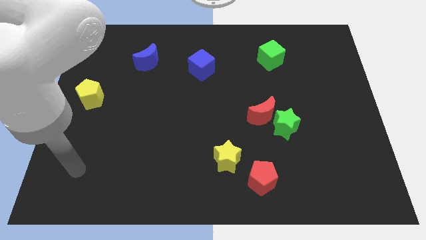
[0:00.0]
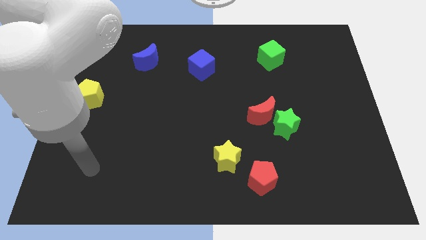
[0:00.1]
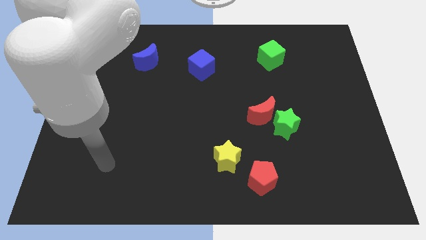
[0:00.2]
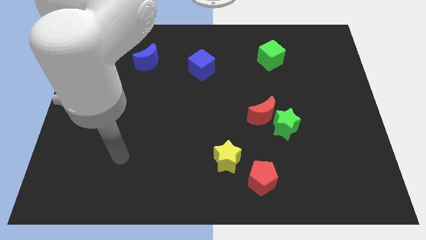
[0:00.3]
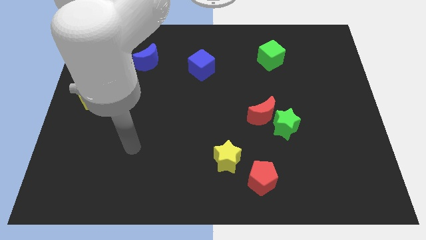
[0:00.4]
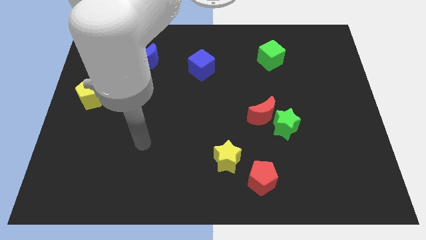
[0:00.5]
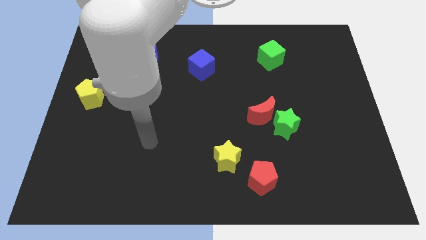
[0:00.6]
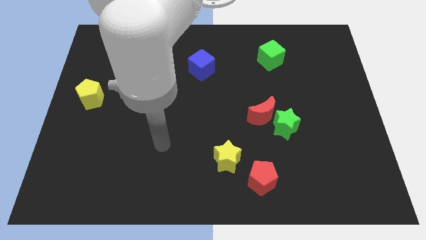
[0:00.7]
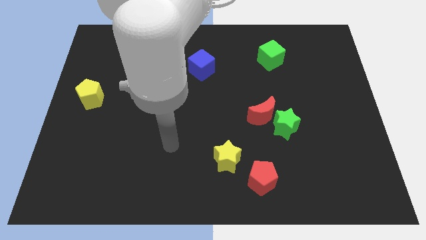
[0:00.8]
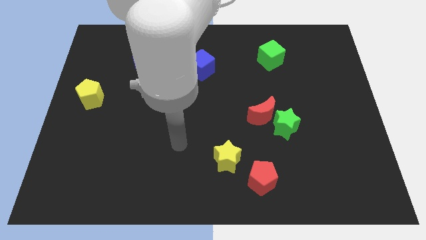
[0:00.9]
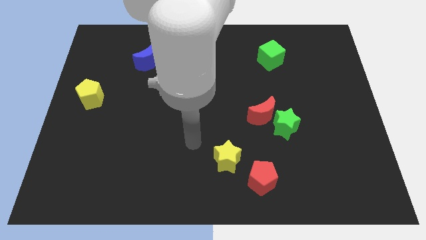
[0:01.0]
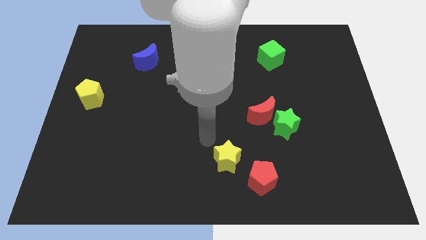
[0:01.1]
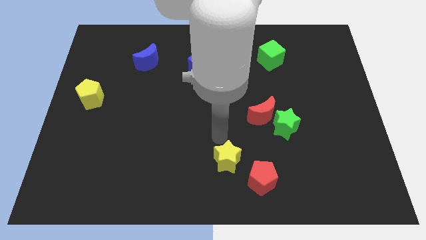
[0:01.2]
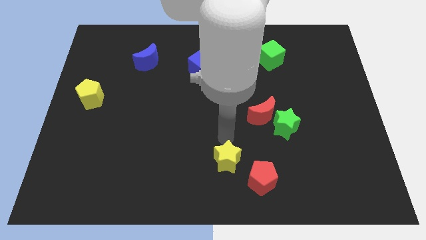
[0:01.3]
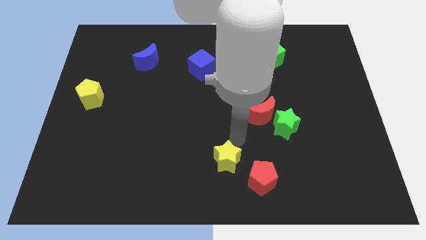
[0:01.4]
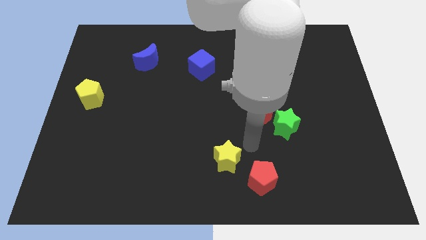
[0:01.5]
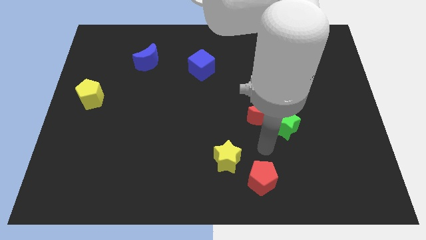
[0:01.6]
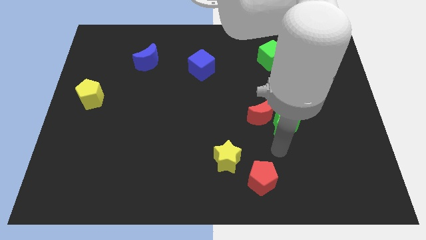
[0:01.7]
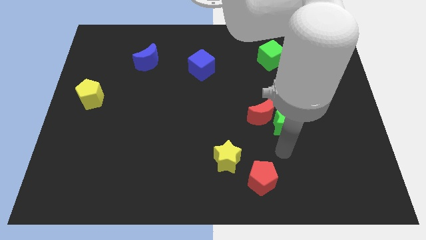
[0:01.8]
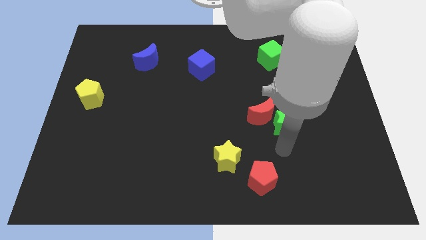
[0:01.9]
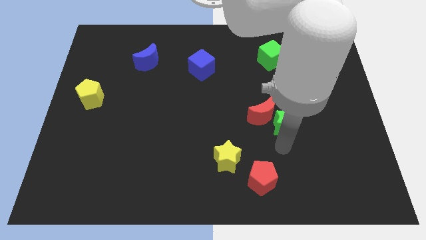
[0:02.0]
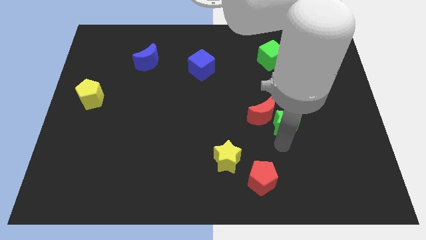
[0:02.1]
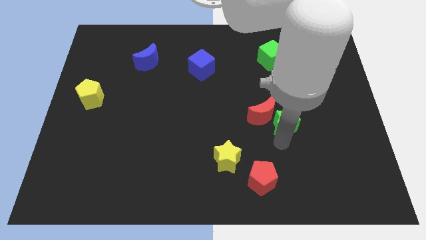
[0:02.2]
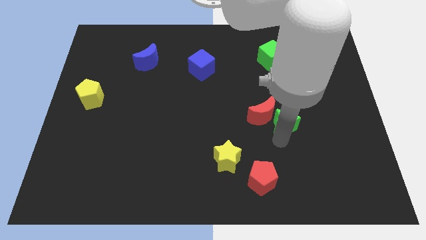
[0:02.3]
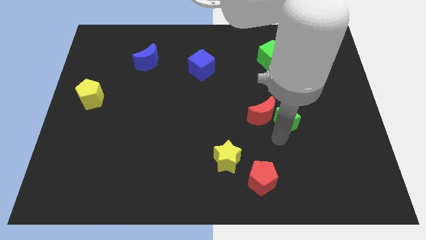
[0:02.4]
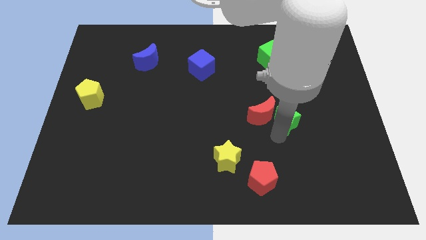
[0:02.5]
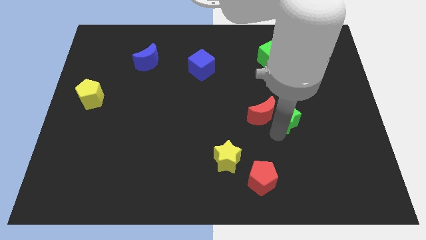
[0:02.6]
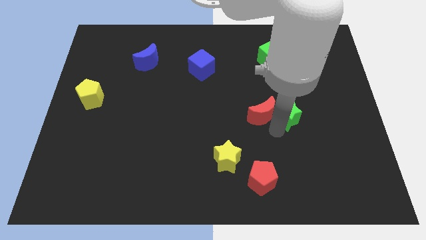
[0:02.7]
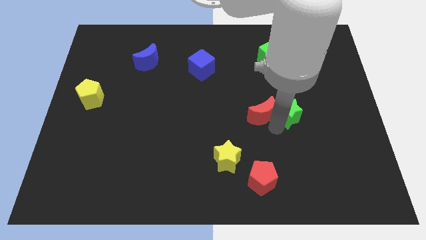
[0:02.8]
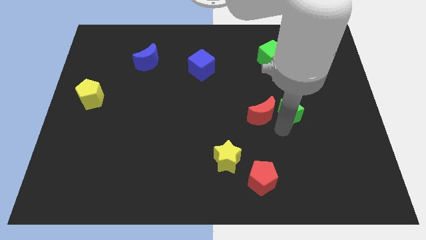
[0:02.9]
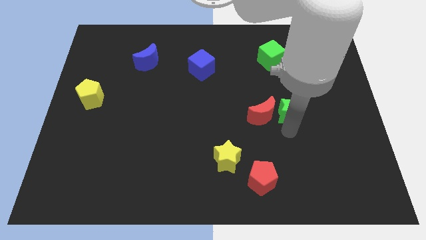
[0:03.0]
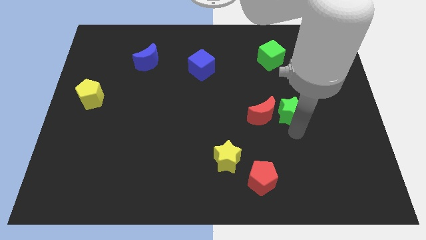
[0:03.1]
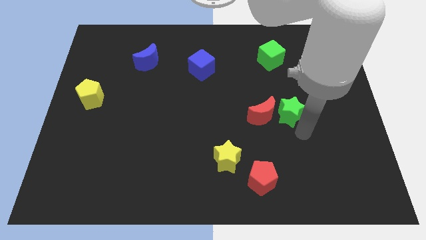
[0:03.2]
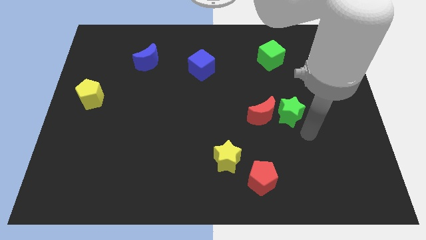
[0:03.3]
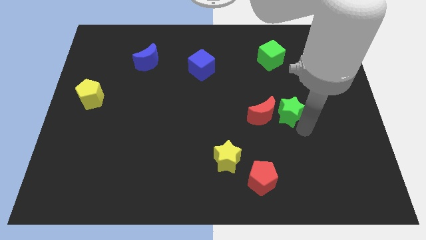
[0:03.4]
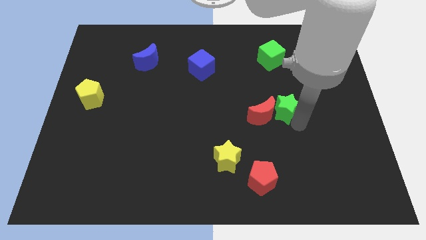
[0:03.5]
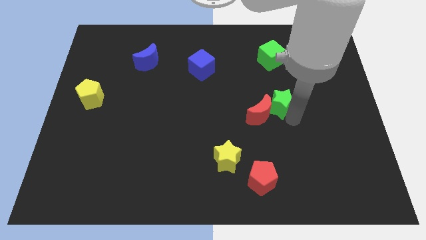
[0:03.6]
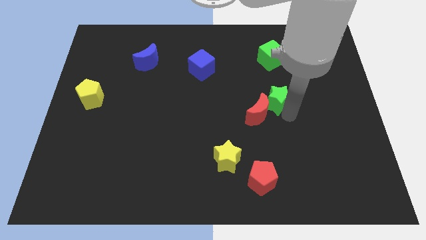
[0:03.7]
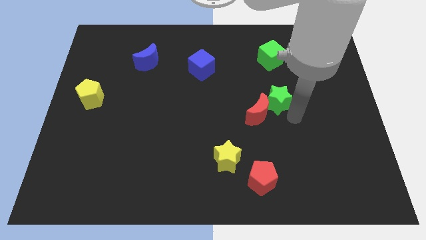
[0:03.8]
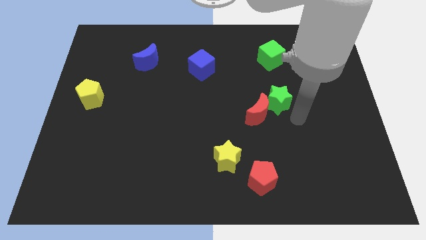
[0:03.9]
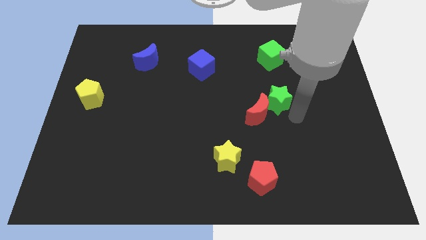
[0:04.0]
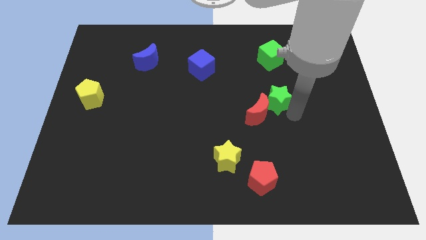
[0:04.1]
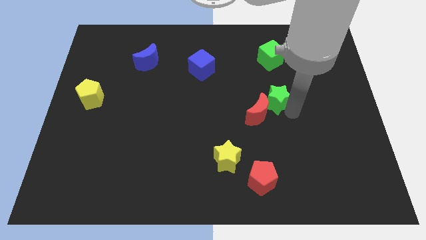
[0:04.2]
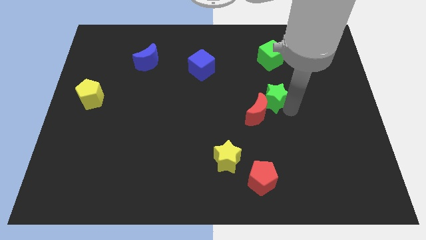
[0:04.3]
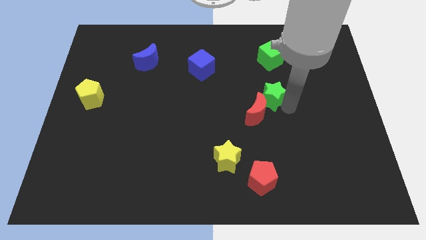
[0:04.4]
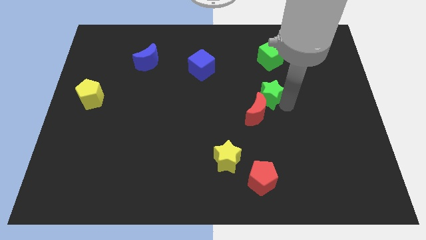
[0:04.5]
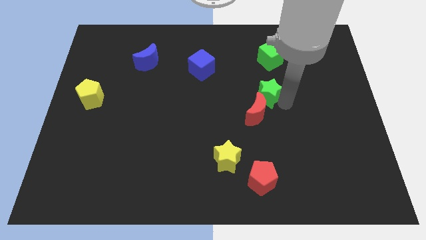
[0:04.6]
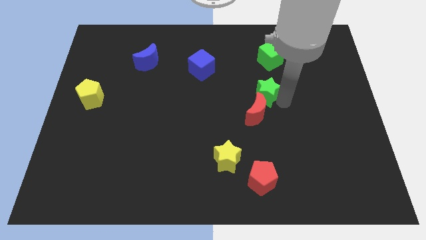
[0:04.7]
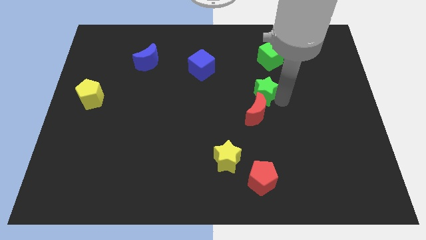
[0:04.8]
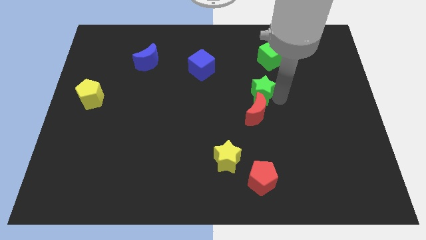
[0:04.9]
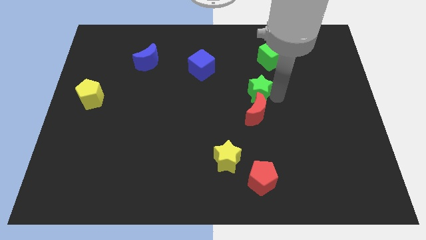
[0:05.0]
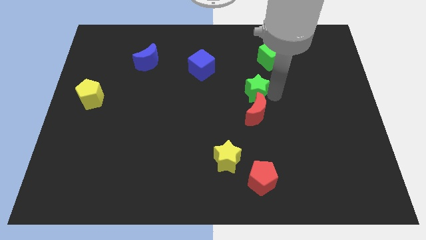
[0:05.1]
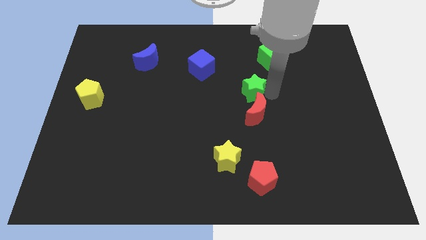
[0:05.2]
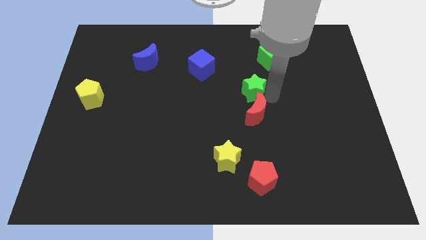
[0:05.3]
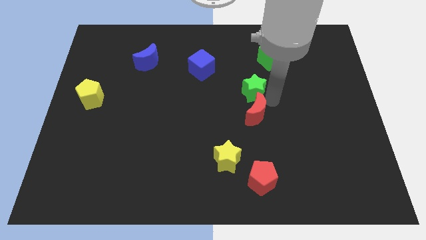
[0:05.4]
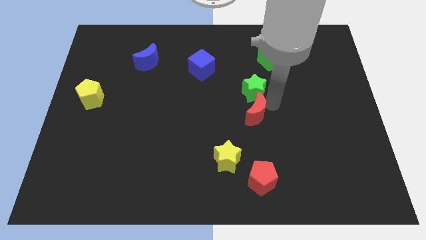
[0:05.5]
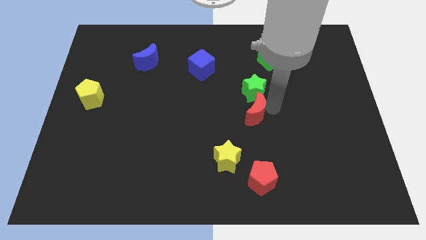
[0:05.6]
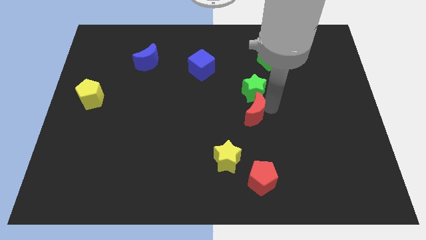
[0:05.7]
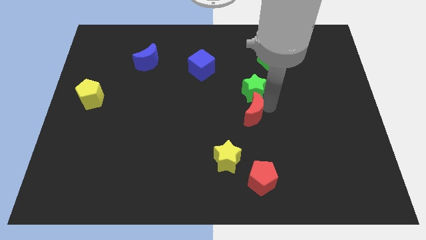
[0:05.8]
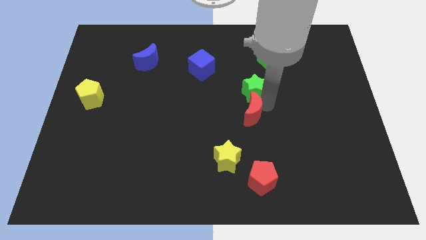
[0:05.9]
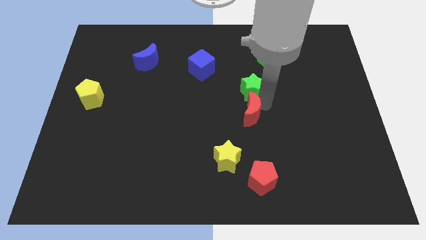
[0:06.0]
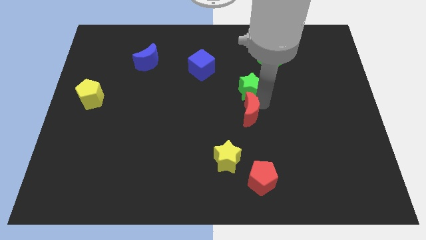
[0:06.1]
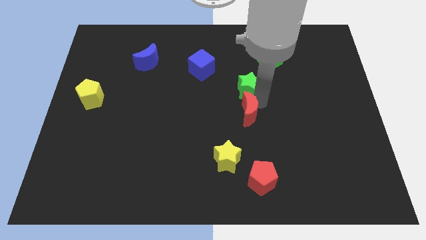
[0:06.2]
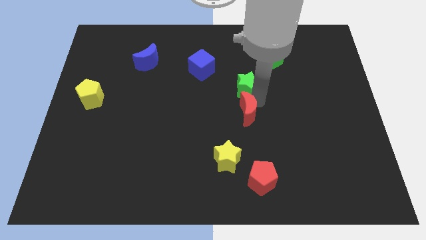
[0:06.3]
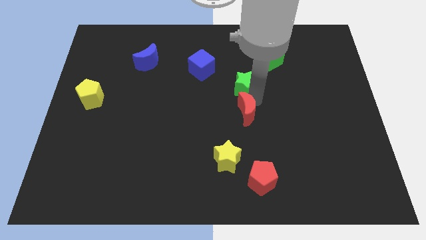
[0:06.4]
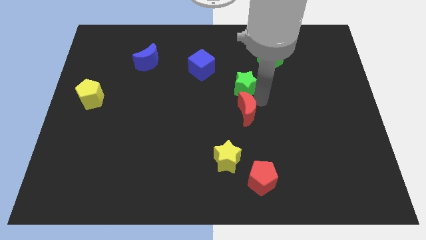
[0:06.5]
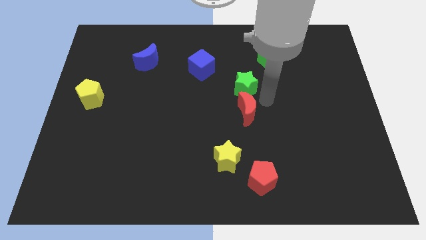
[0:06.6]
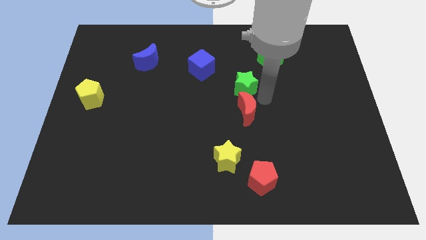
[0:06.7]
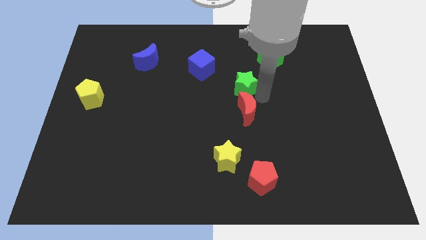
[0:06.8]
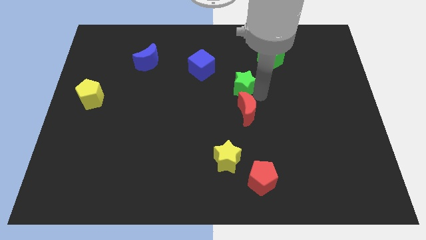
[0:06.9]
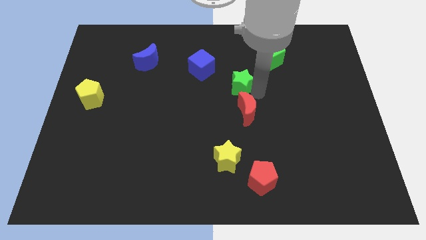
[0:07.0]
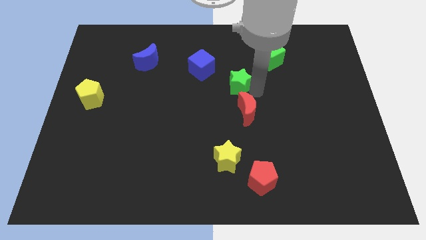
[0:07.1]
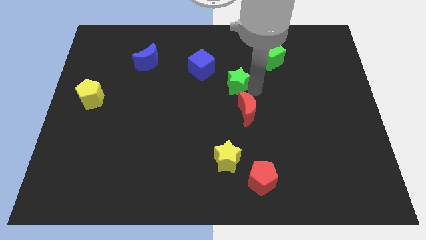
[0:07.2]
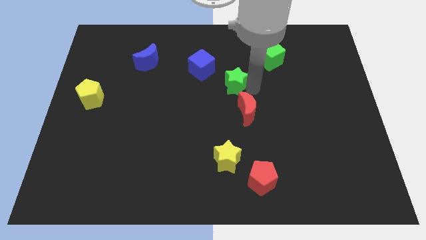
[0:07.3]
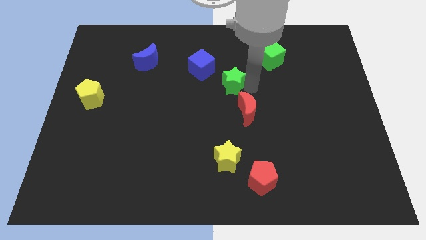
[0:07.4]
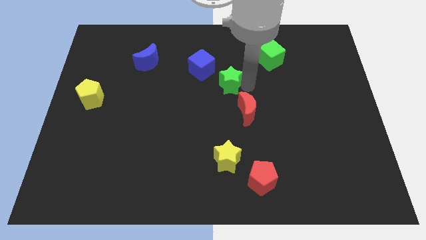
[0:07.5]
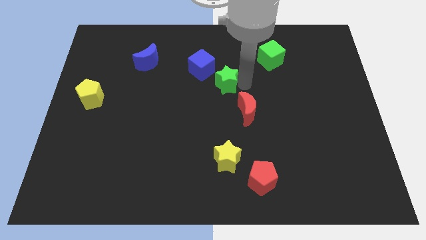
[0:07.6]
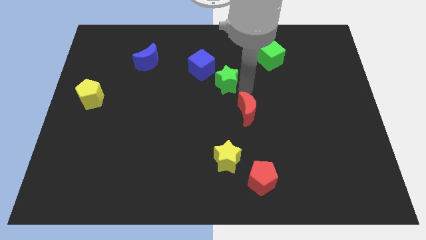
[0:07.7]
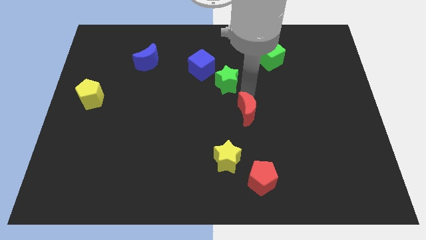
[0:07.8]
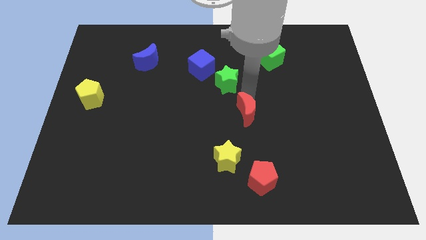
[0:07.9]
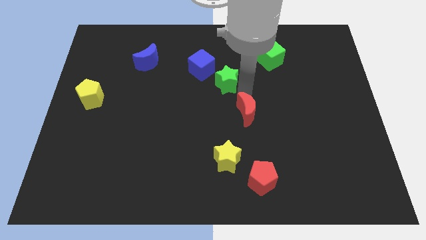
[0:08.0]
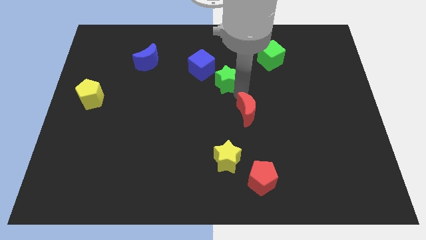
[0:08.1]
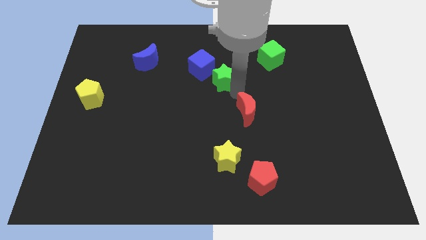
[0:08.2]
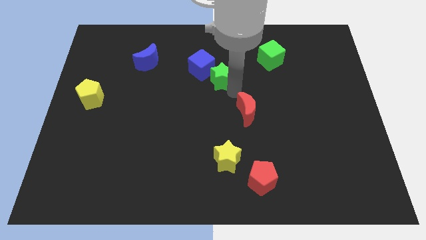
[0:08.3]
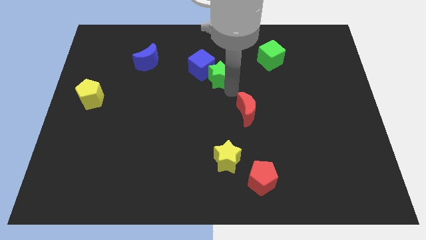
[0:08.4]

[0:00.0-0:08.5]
move the green star next to the blue cube
